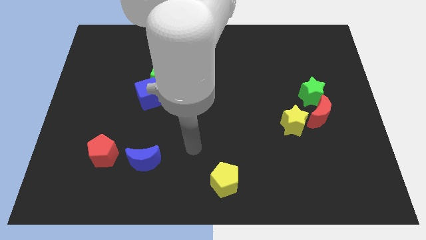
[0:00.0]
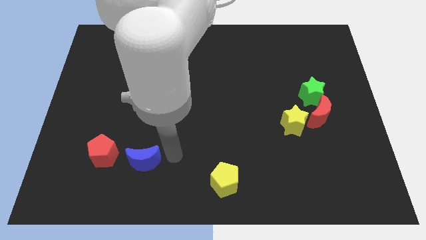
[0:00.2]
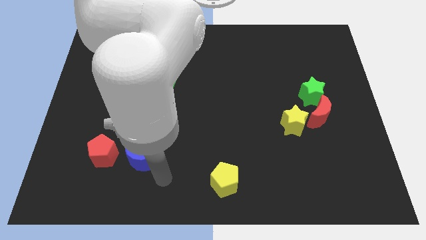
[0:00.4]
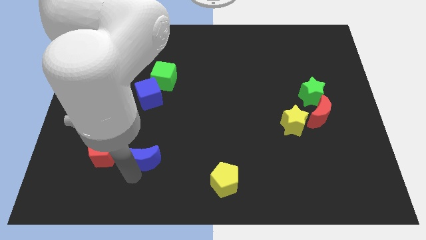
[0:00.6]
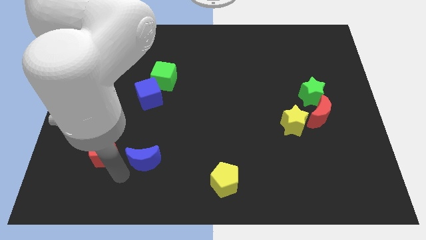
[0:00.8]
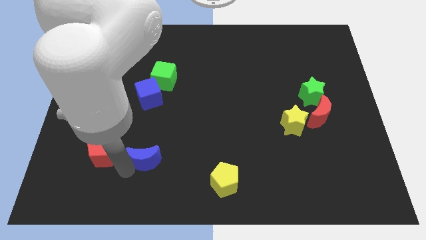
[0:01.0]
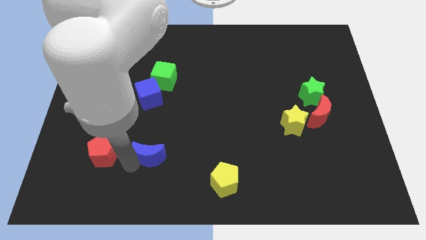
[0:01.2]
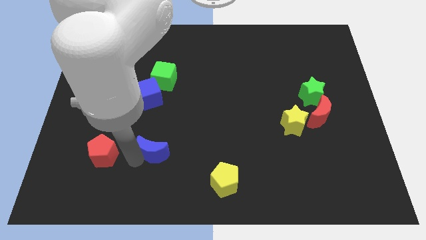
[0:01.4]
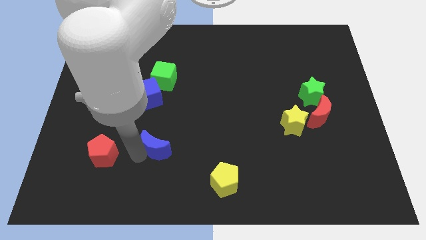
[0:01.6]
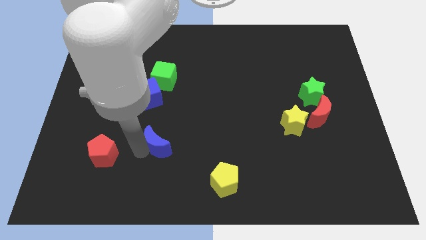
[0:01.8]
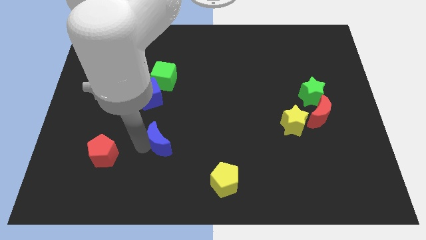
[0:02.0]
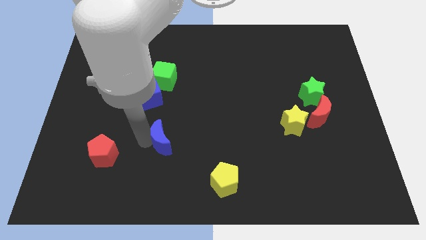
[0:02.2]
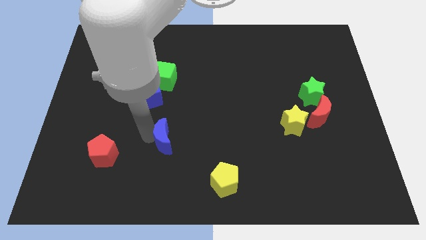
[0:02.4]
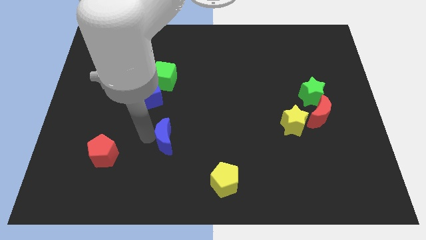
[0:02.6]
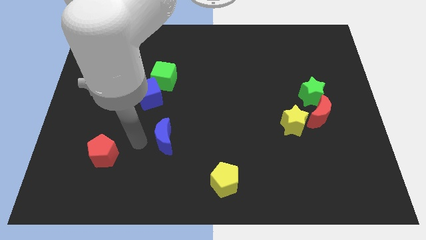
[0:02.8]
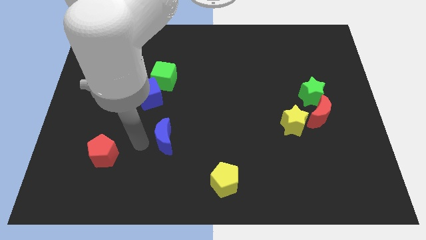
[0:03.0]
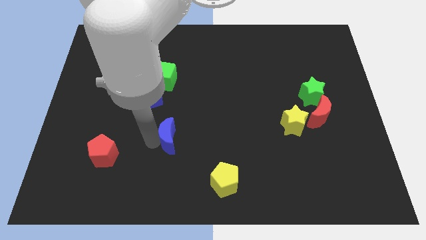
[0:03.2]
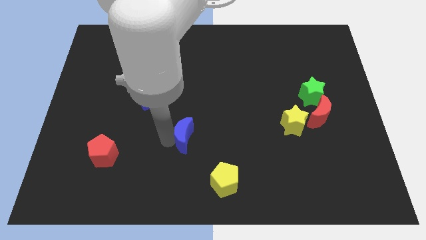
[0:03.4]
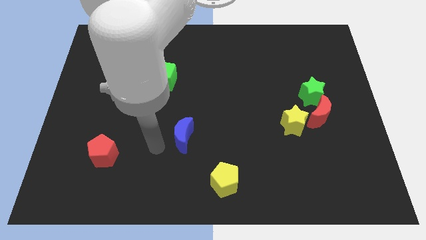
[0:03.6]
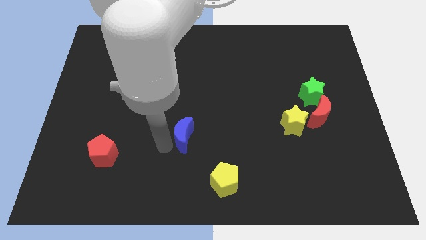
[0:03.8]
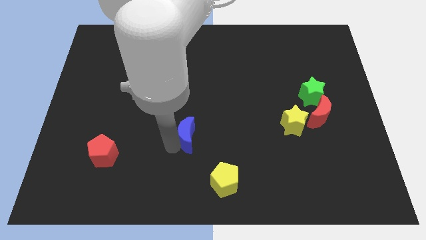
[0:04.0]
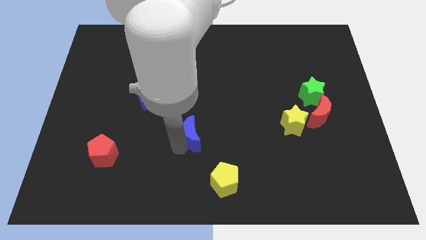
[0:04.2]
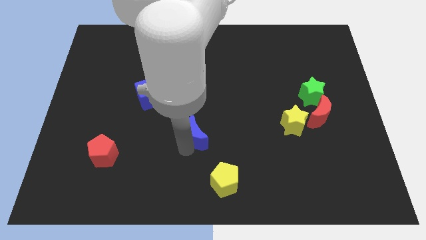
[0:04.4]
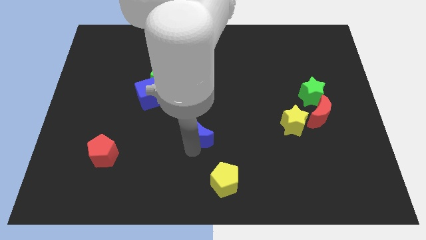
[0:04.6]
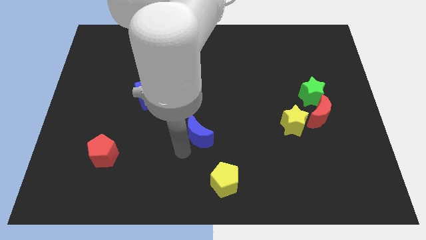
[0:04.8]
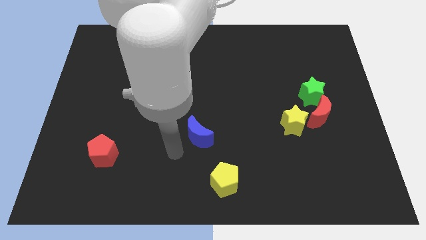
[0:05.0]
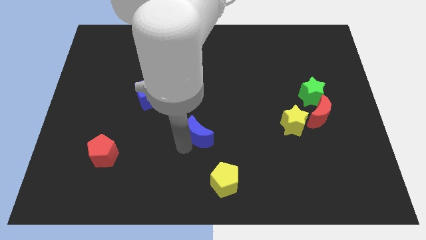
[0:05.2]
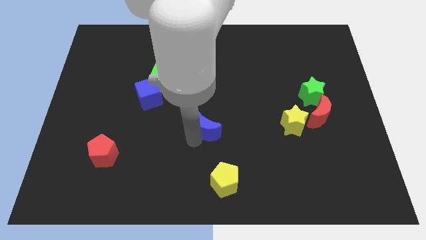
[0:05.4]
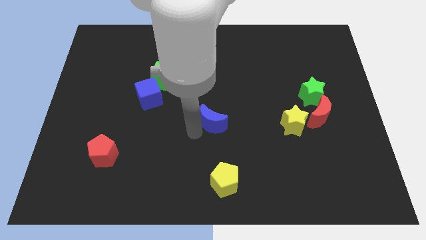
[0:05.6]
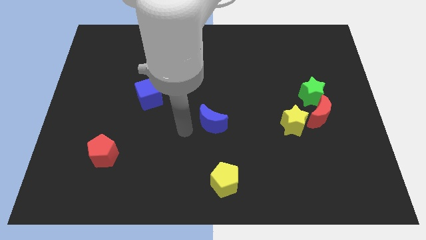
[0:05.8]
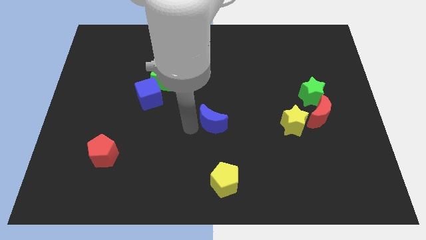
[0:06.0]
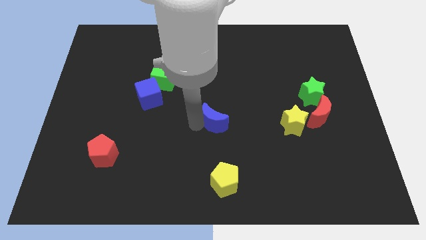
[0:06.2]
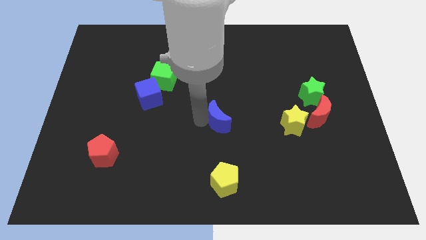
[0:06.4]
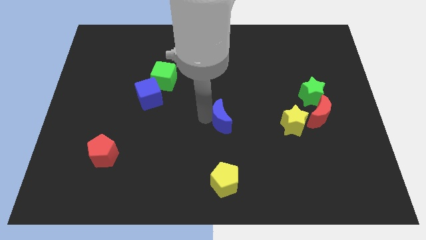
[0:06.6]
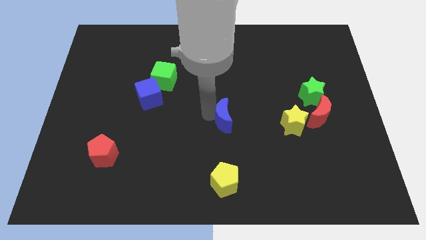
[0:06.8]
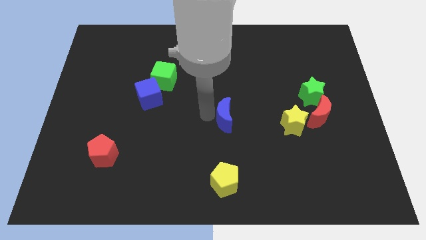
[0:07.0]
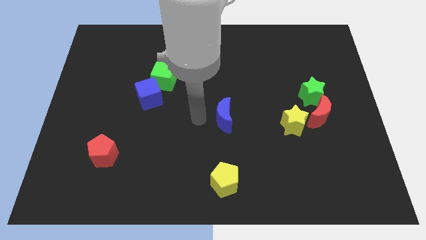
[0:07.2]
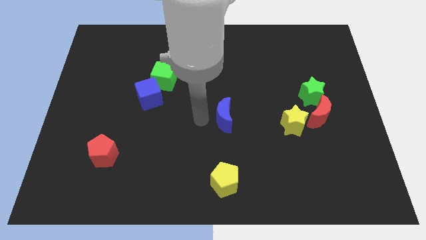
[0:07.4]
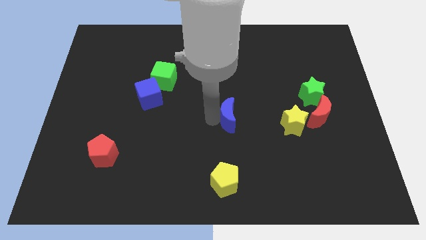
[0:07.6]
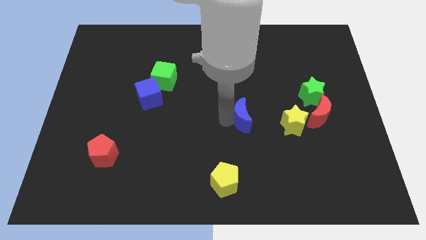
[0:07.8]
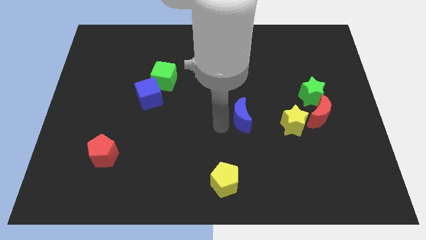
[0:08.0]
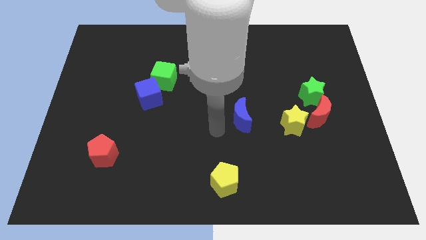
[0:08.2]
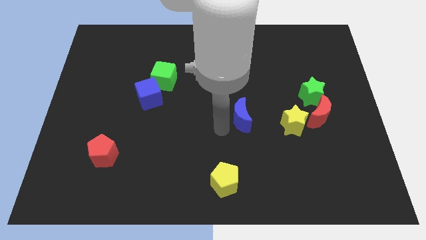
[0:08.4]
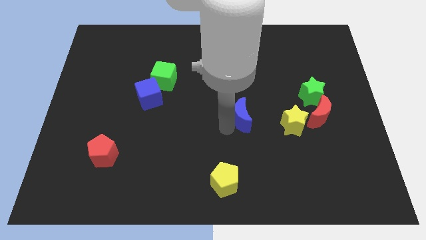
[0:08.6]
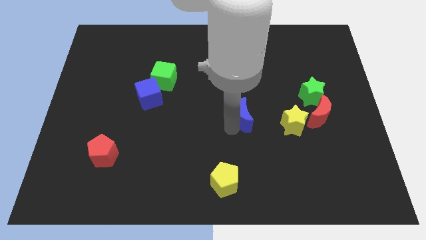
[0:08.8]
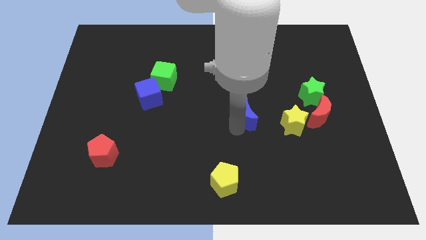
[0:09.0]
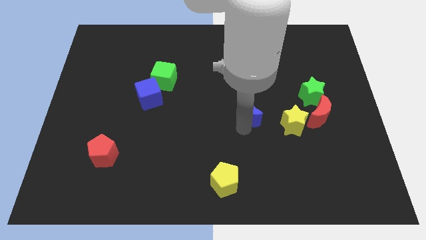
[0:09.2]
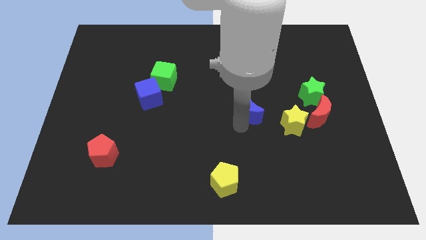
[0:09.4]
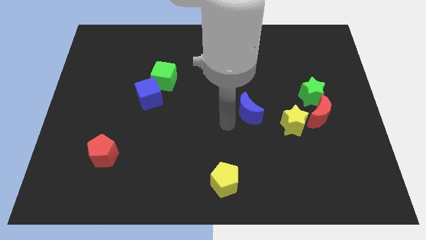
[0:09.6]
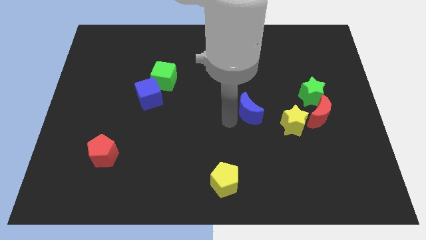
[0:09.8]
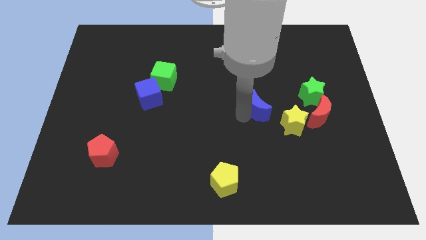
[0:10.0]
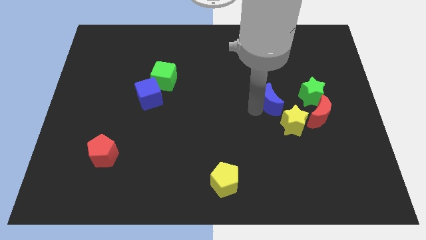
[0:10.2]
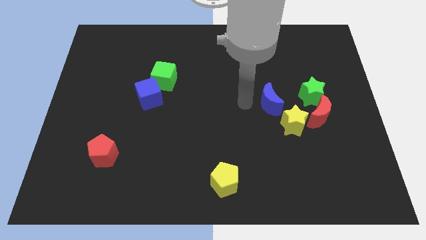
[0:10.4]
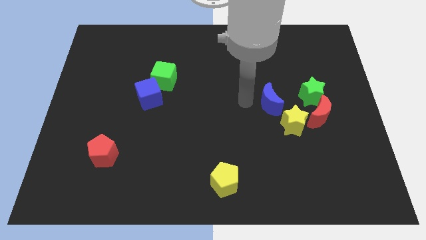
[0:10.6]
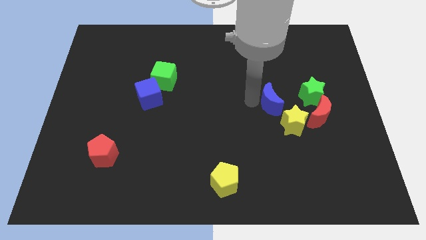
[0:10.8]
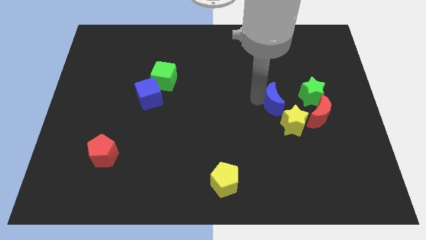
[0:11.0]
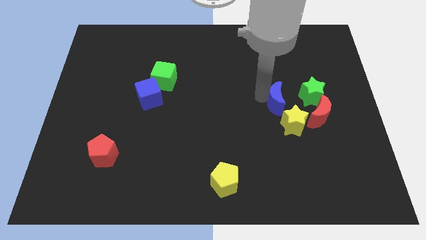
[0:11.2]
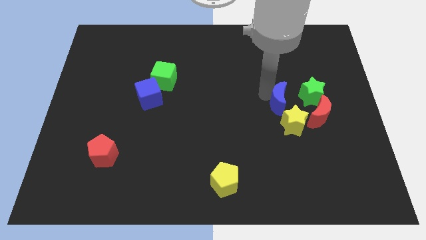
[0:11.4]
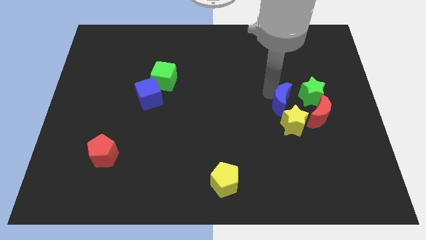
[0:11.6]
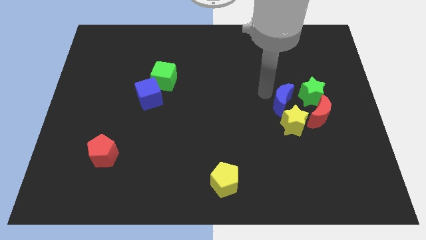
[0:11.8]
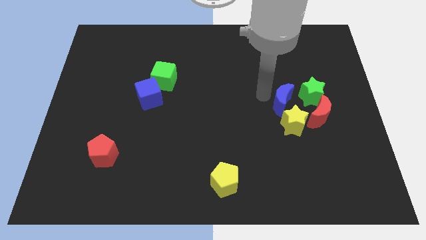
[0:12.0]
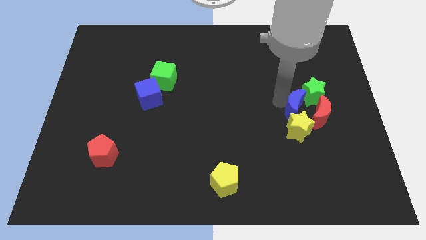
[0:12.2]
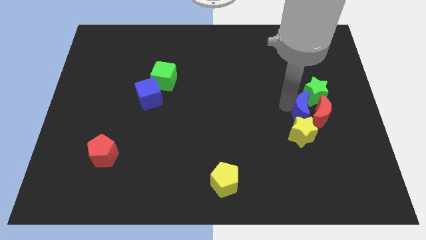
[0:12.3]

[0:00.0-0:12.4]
slide the blue moon towards the red moon

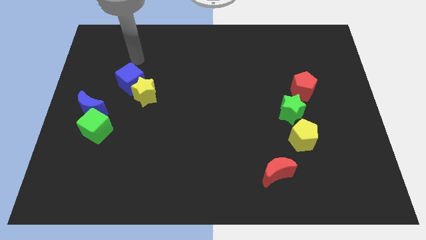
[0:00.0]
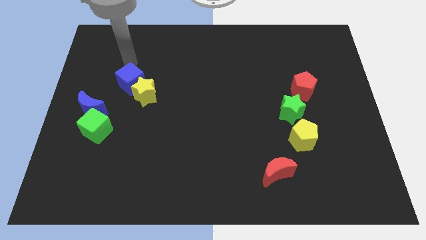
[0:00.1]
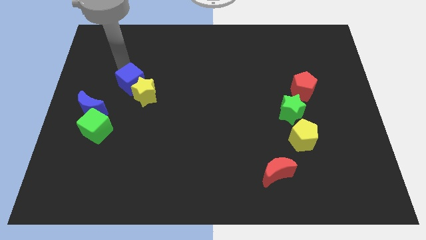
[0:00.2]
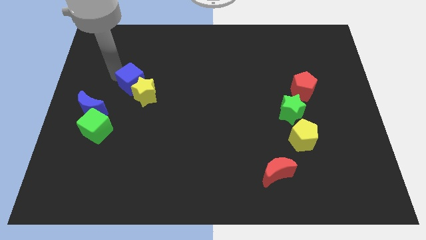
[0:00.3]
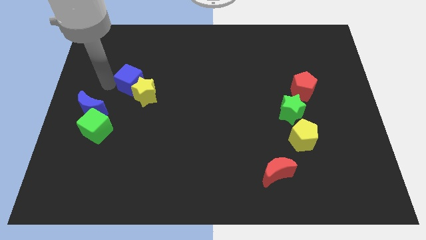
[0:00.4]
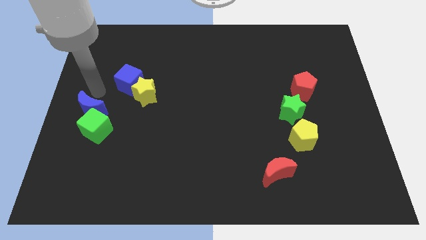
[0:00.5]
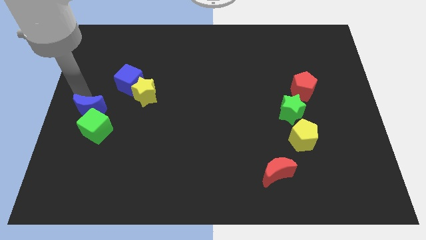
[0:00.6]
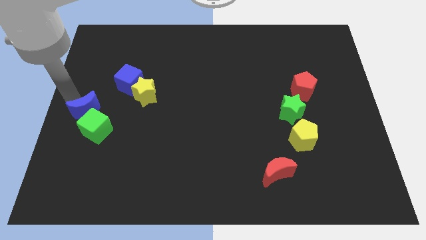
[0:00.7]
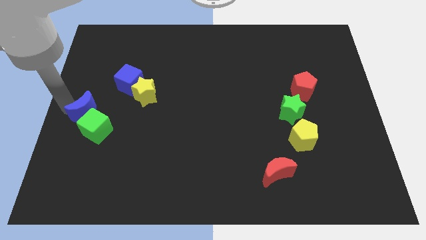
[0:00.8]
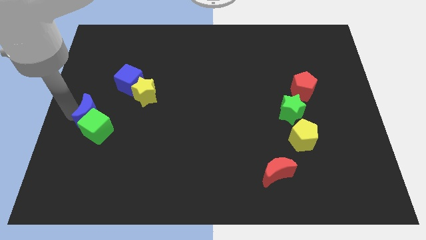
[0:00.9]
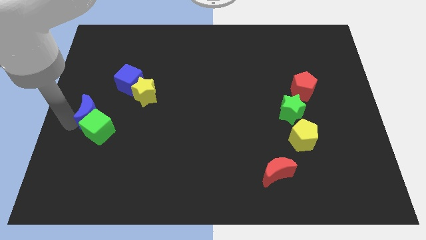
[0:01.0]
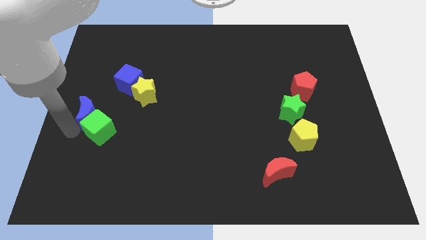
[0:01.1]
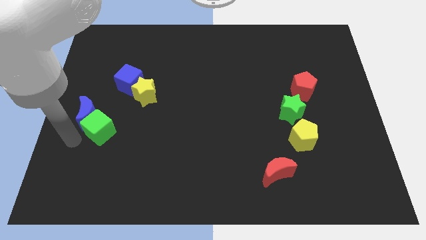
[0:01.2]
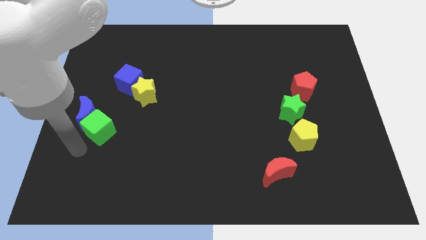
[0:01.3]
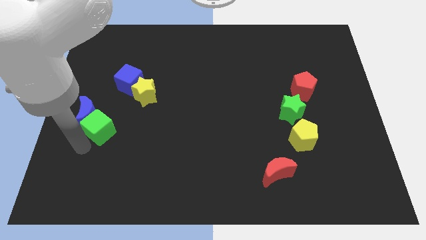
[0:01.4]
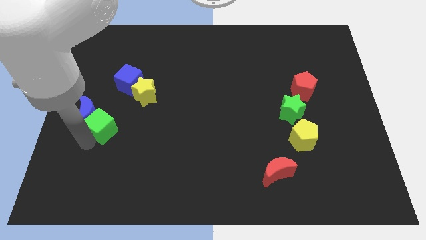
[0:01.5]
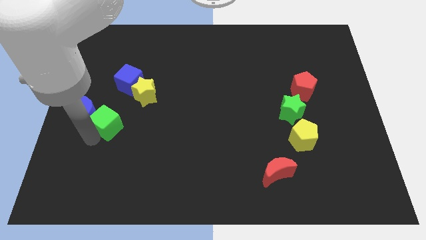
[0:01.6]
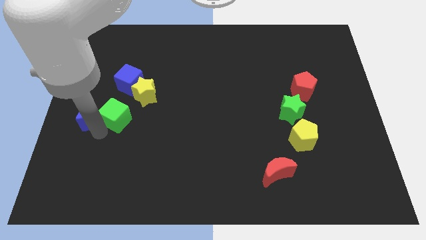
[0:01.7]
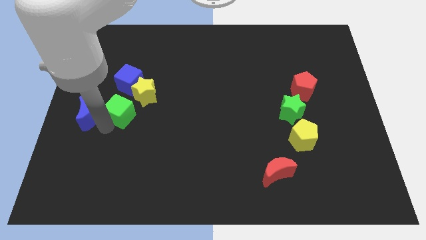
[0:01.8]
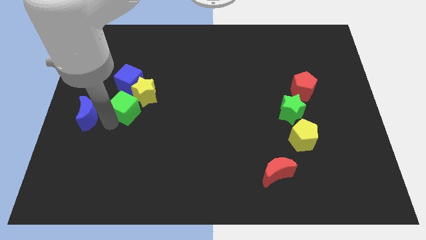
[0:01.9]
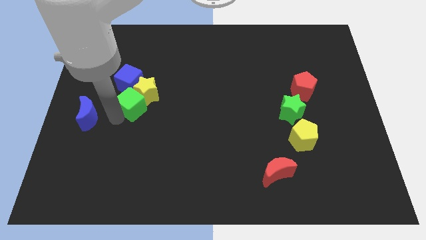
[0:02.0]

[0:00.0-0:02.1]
put the green cube next to the yellow star
